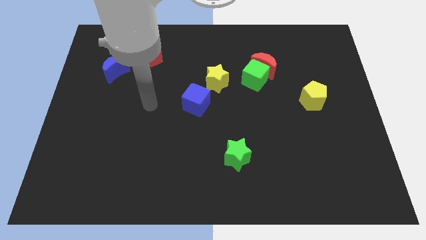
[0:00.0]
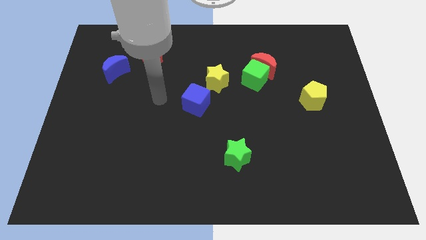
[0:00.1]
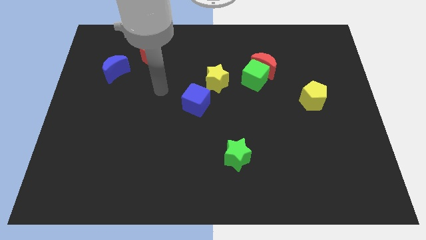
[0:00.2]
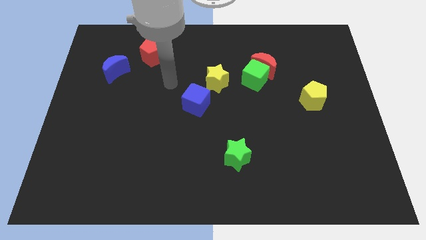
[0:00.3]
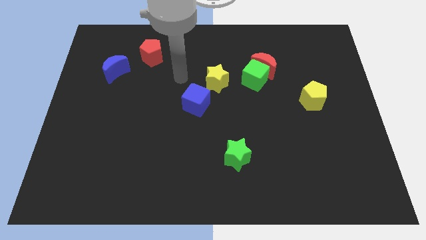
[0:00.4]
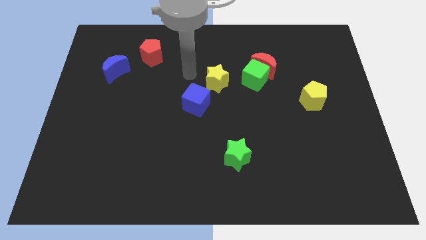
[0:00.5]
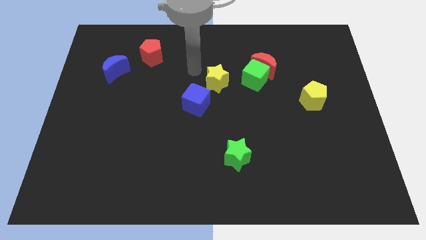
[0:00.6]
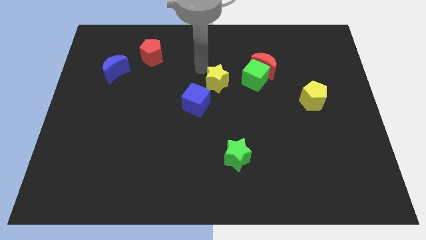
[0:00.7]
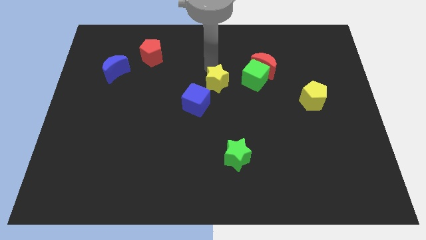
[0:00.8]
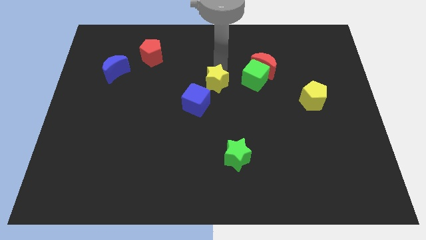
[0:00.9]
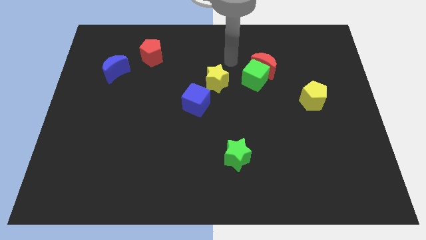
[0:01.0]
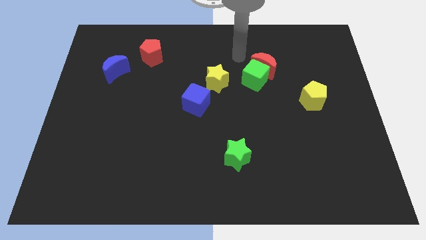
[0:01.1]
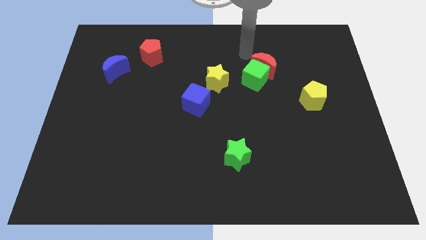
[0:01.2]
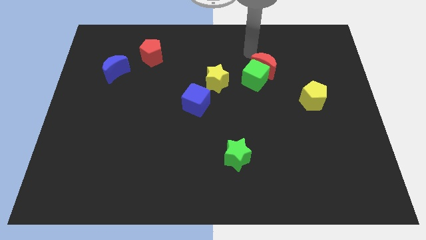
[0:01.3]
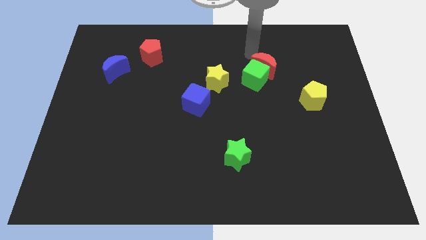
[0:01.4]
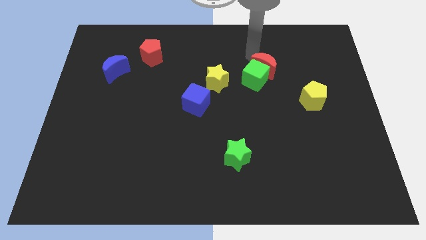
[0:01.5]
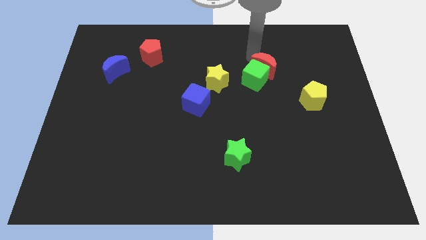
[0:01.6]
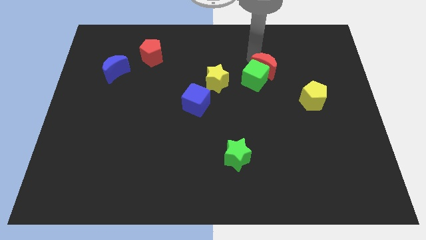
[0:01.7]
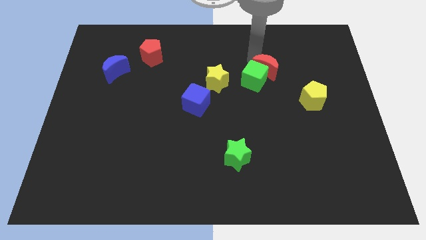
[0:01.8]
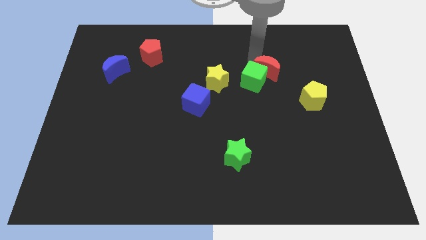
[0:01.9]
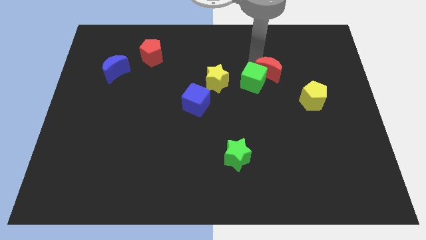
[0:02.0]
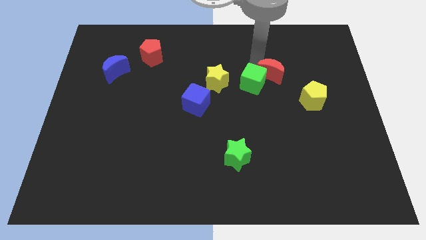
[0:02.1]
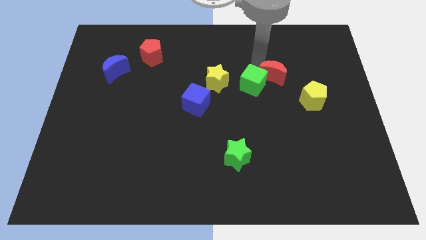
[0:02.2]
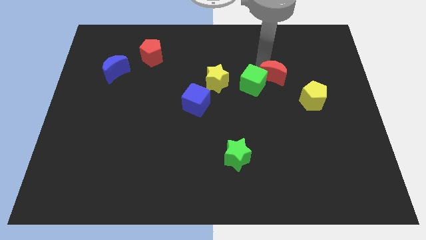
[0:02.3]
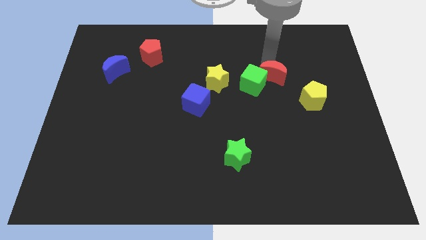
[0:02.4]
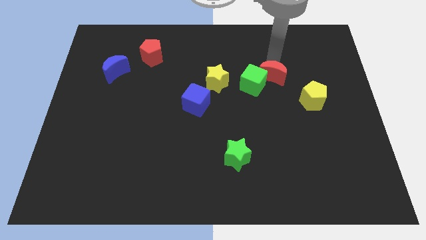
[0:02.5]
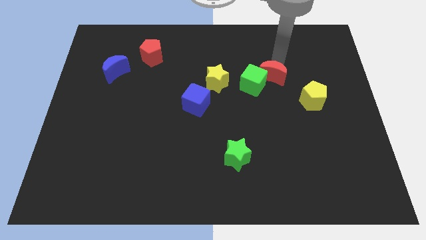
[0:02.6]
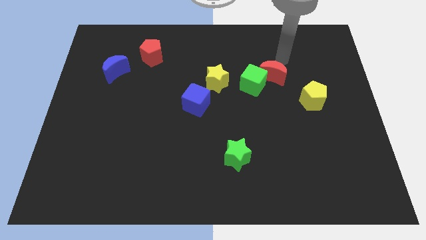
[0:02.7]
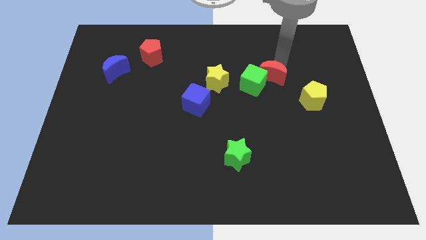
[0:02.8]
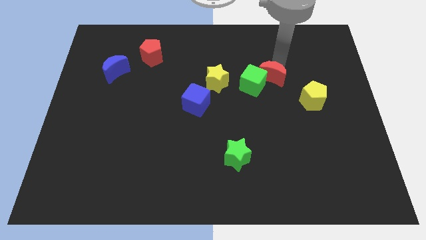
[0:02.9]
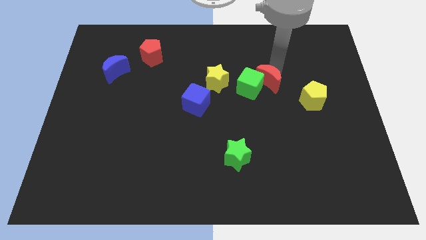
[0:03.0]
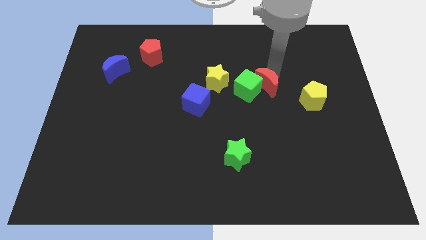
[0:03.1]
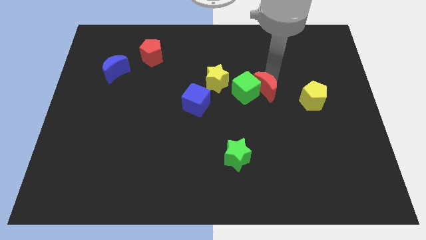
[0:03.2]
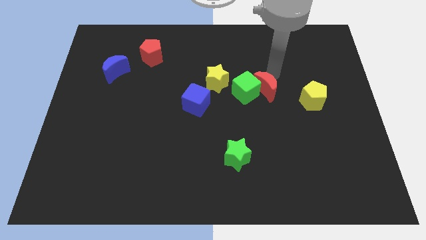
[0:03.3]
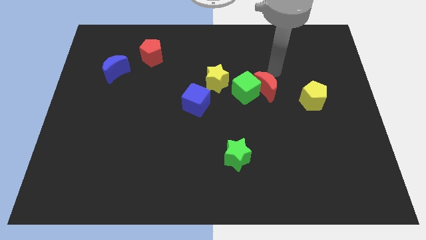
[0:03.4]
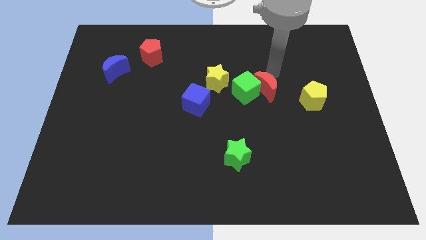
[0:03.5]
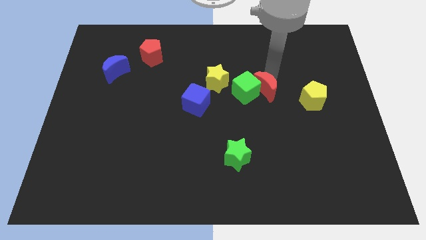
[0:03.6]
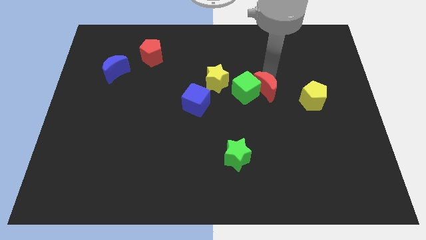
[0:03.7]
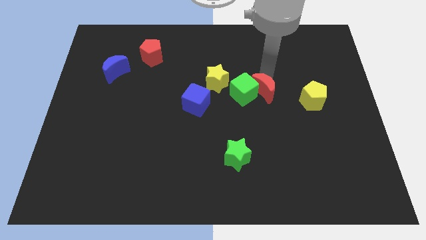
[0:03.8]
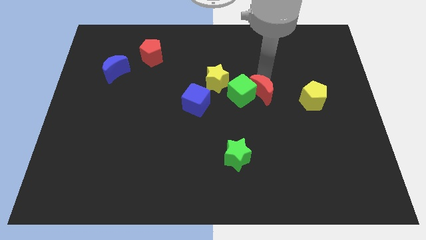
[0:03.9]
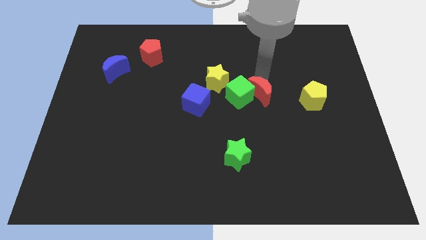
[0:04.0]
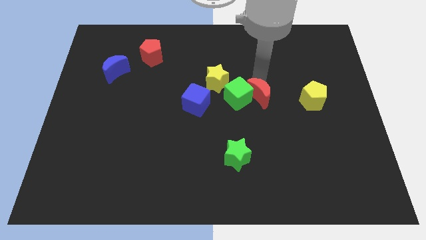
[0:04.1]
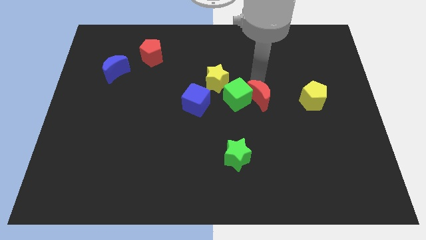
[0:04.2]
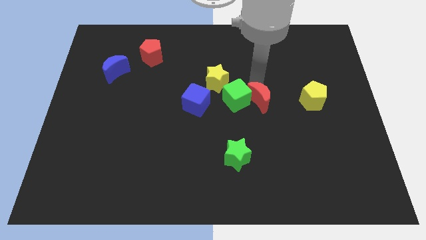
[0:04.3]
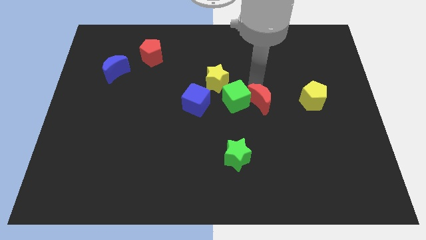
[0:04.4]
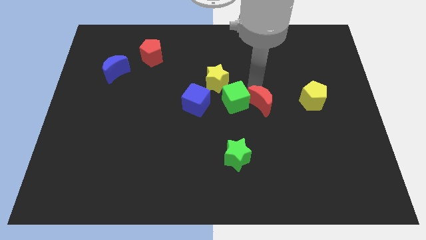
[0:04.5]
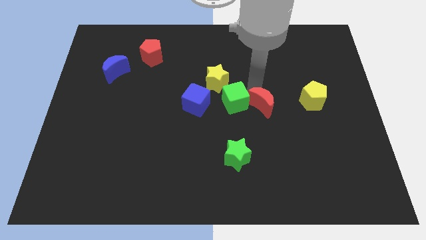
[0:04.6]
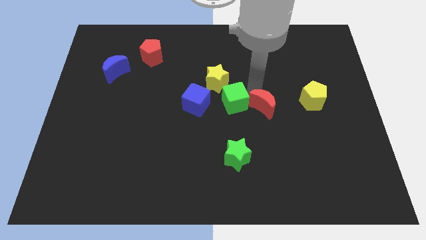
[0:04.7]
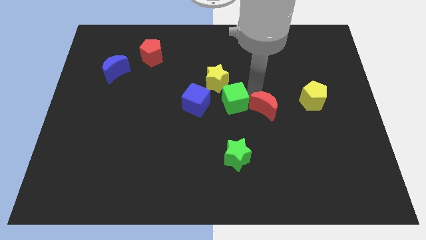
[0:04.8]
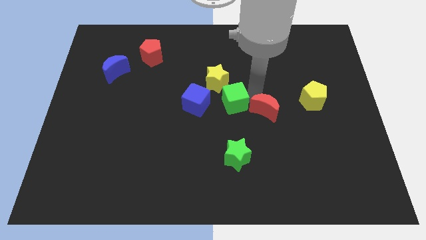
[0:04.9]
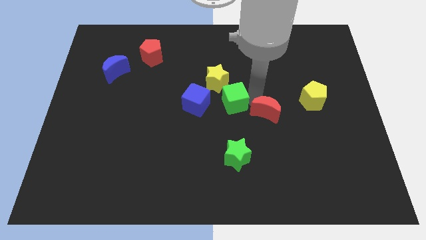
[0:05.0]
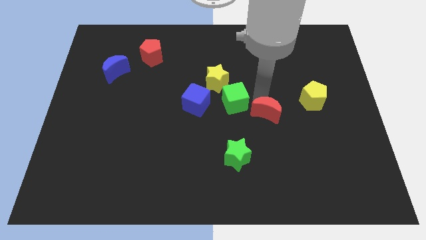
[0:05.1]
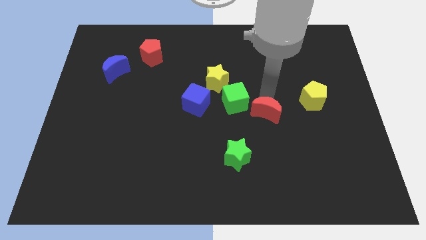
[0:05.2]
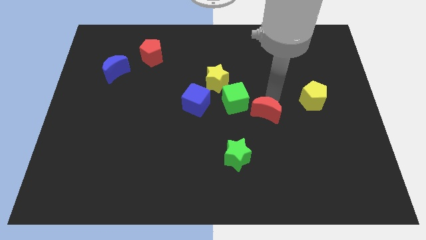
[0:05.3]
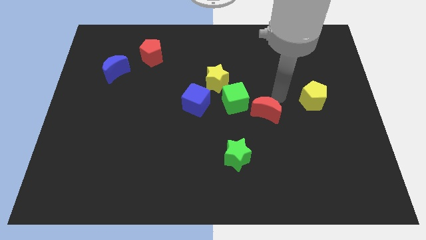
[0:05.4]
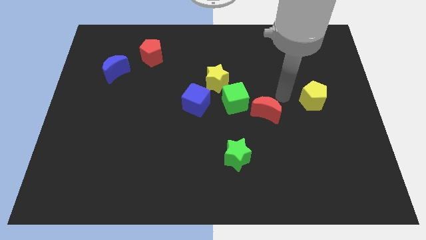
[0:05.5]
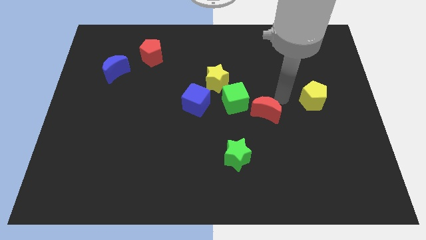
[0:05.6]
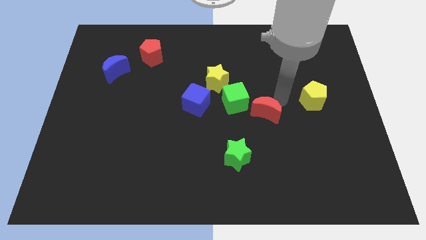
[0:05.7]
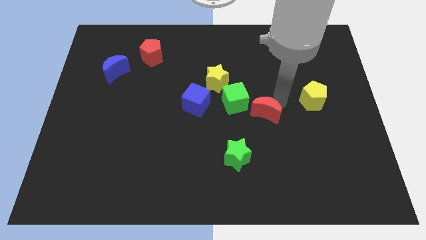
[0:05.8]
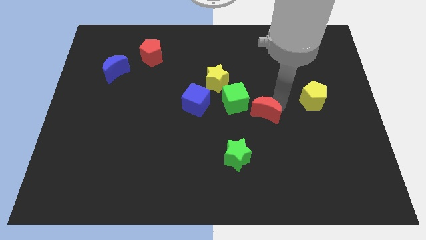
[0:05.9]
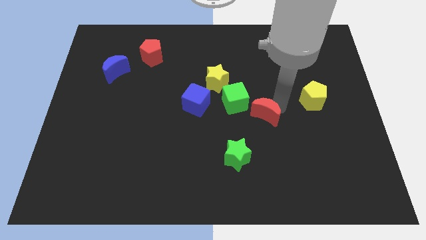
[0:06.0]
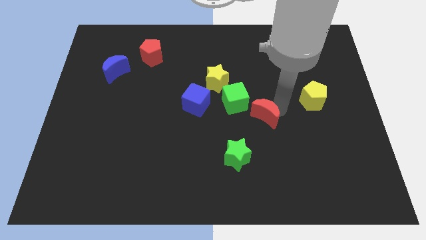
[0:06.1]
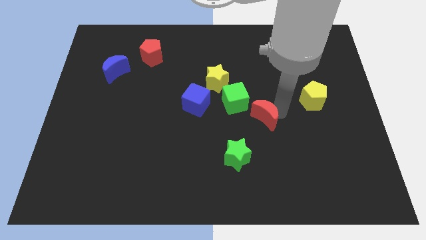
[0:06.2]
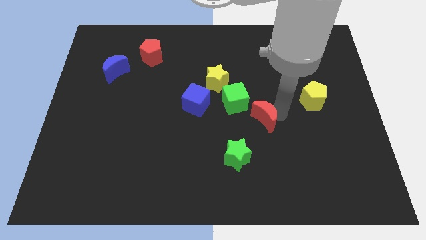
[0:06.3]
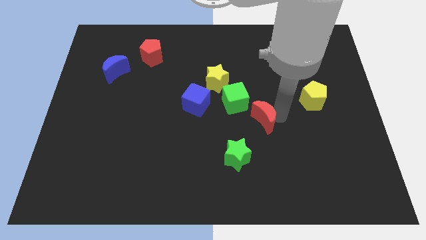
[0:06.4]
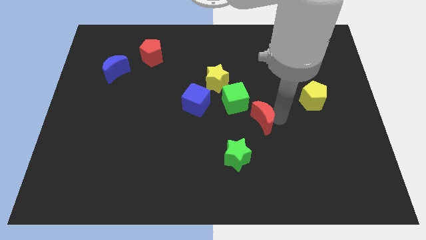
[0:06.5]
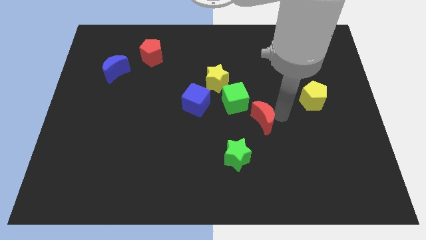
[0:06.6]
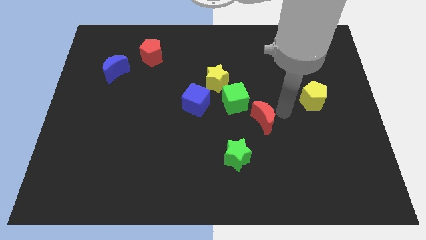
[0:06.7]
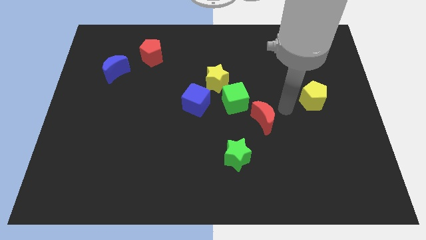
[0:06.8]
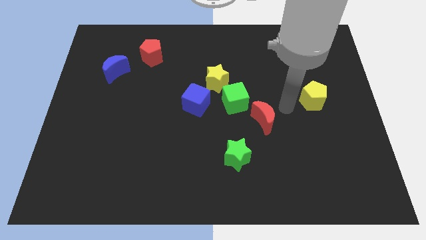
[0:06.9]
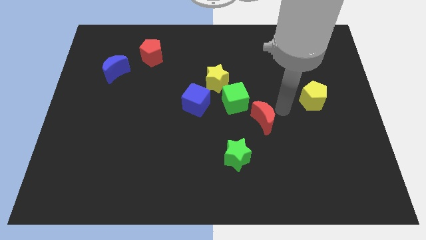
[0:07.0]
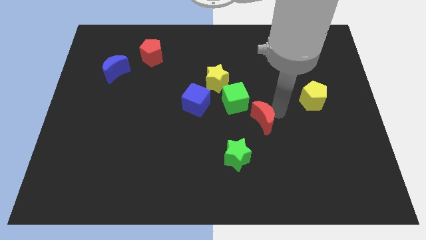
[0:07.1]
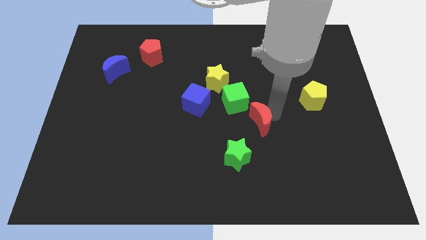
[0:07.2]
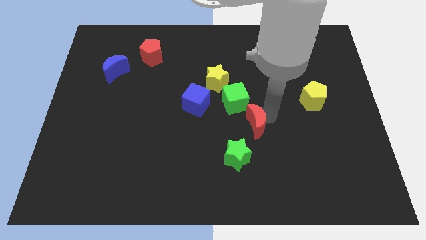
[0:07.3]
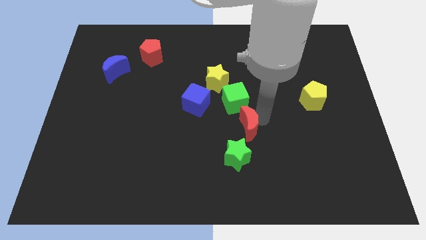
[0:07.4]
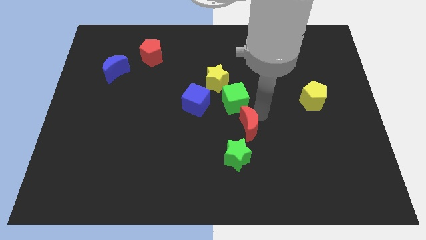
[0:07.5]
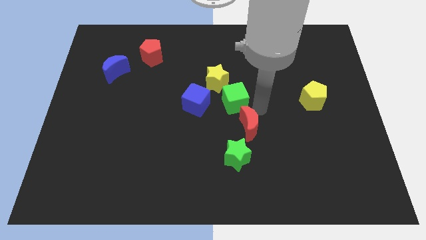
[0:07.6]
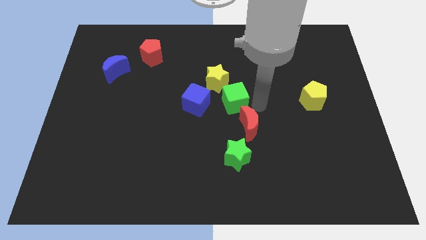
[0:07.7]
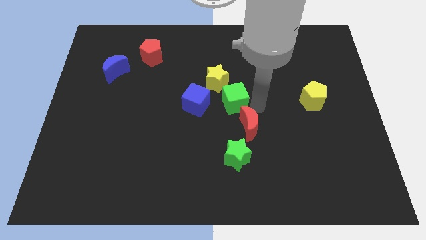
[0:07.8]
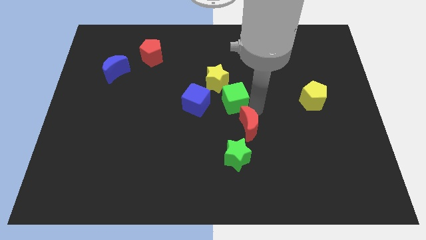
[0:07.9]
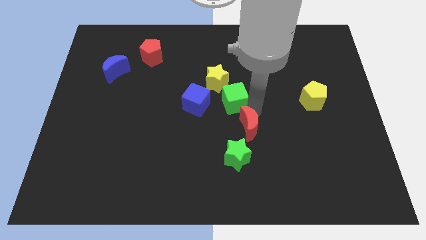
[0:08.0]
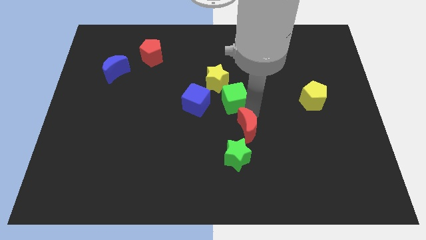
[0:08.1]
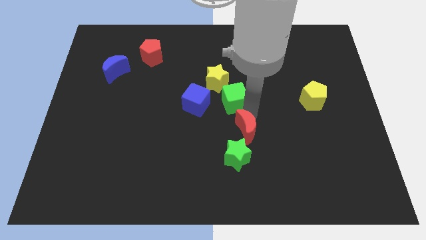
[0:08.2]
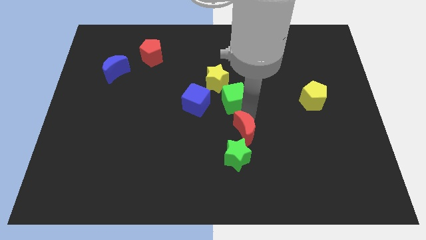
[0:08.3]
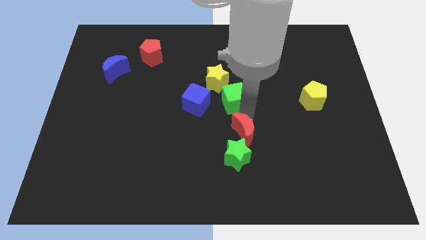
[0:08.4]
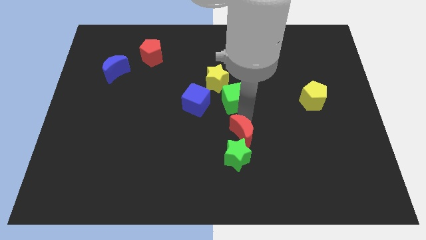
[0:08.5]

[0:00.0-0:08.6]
slide the red moon towards the green star
